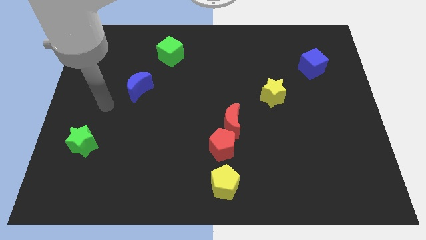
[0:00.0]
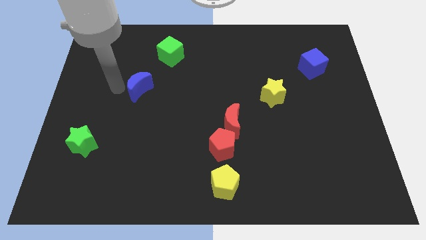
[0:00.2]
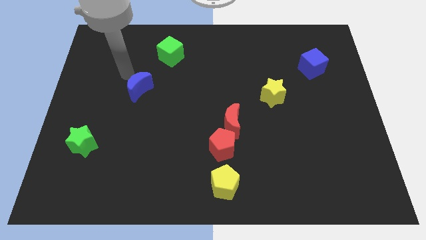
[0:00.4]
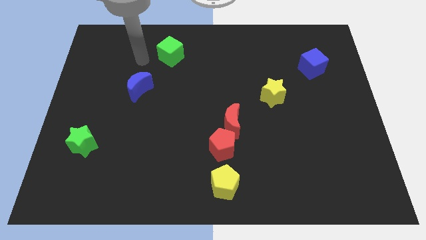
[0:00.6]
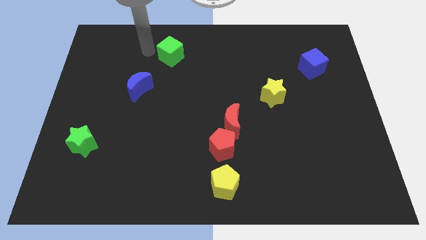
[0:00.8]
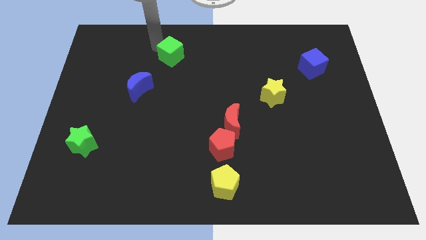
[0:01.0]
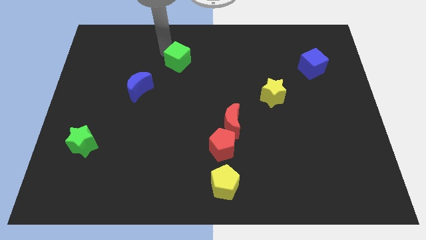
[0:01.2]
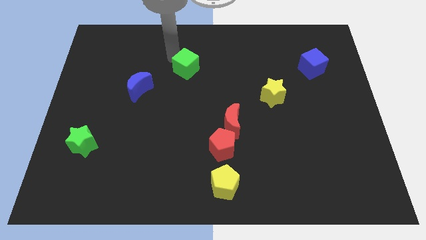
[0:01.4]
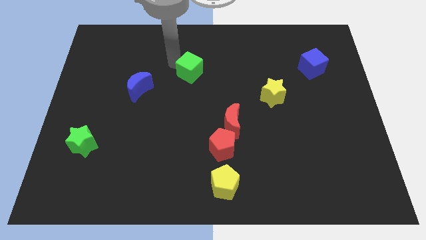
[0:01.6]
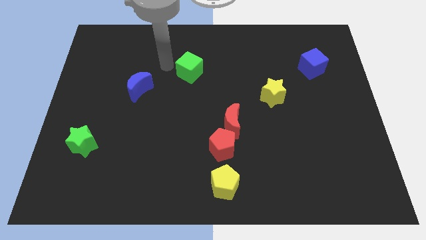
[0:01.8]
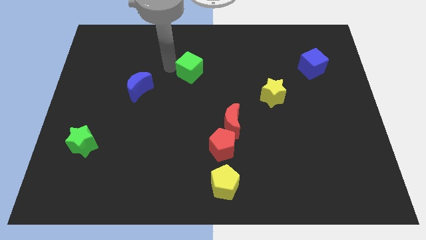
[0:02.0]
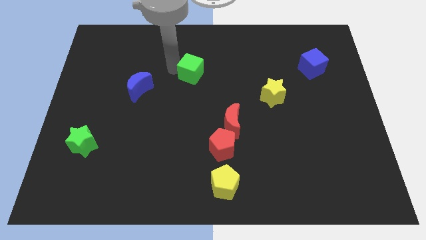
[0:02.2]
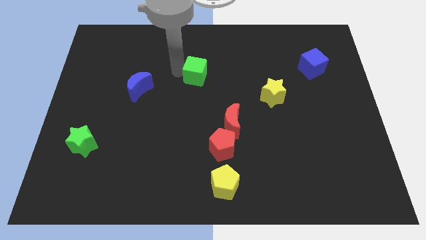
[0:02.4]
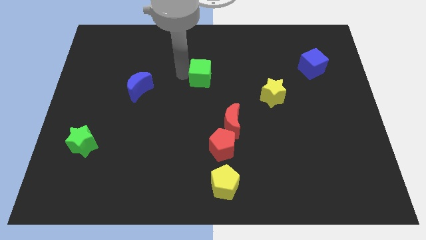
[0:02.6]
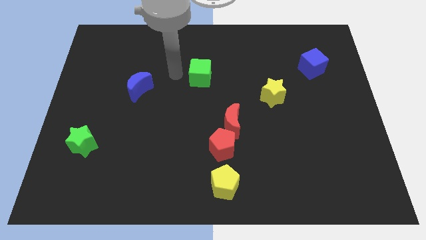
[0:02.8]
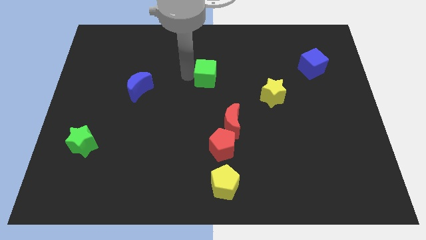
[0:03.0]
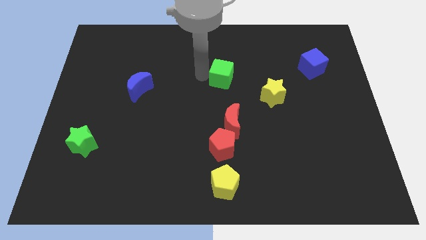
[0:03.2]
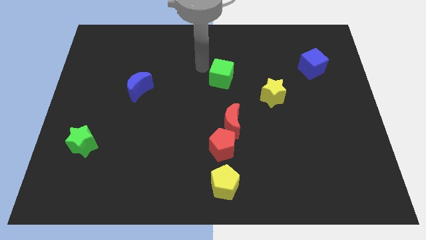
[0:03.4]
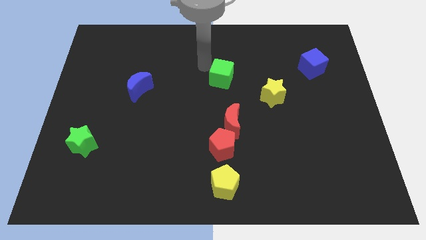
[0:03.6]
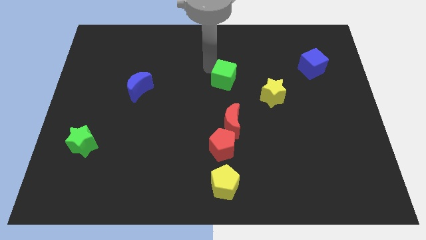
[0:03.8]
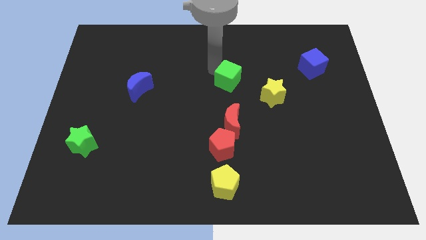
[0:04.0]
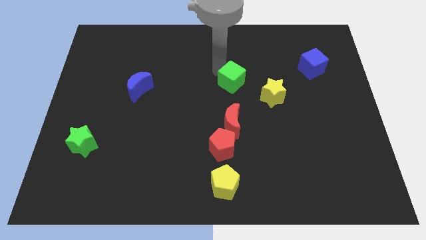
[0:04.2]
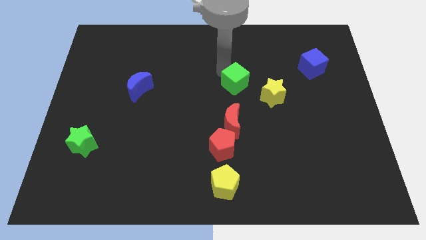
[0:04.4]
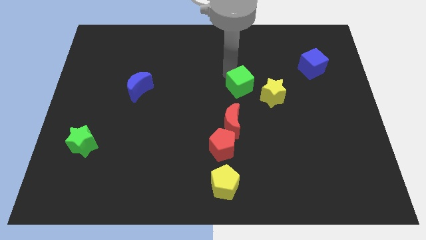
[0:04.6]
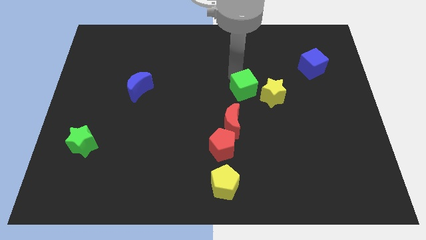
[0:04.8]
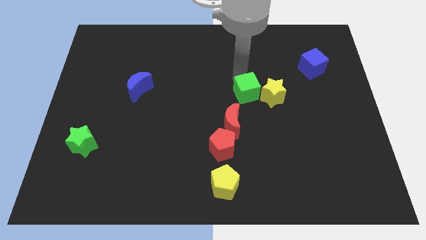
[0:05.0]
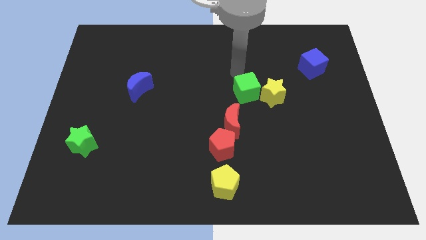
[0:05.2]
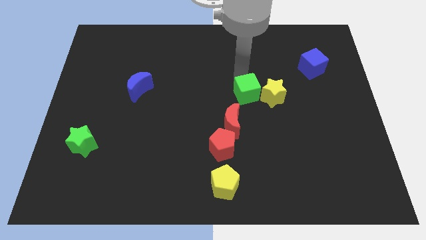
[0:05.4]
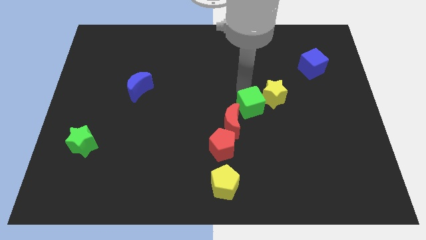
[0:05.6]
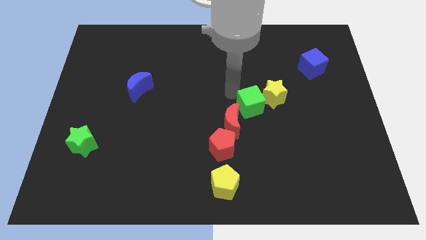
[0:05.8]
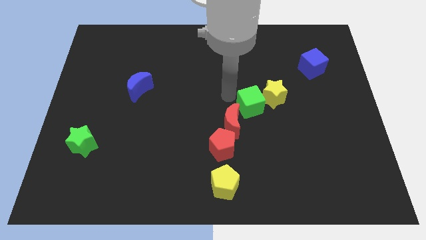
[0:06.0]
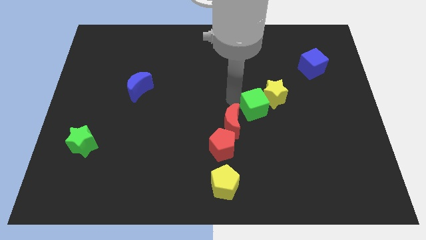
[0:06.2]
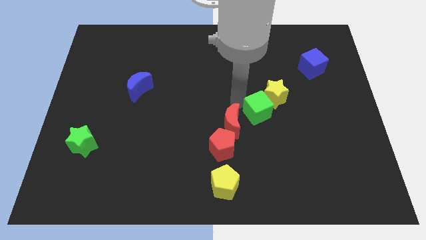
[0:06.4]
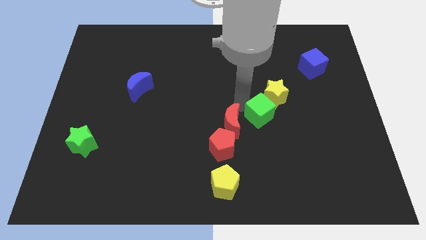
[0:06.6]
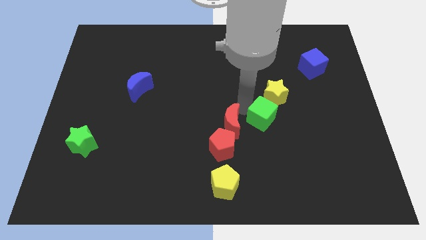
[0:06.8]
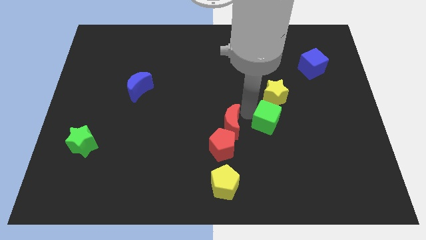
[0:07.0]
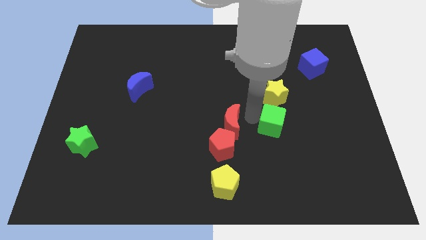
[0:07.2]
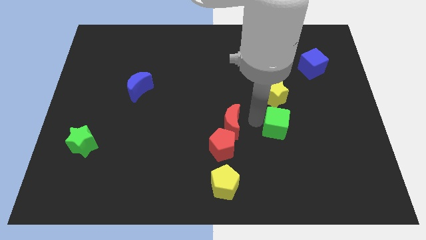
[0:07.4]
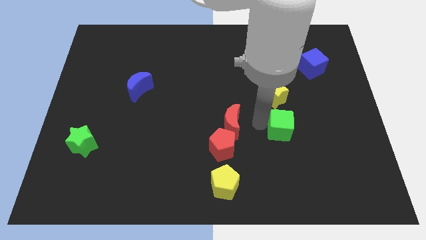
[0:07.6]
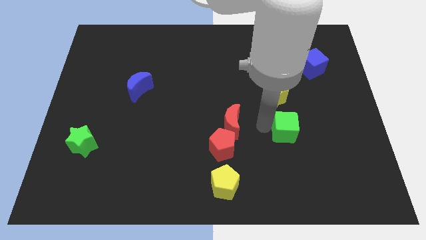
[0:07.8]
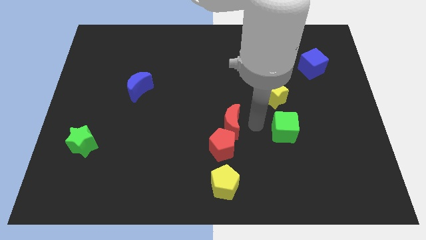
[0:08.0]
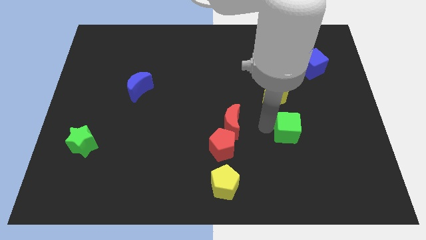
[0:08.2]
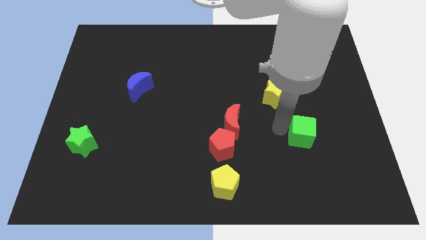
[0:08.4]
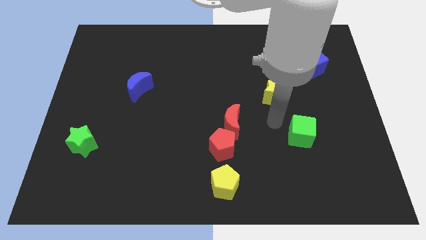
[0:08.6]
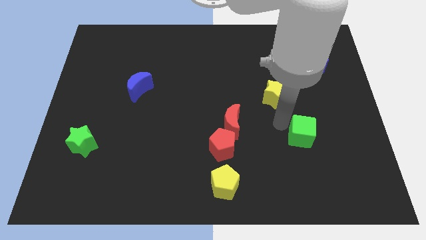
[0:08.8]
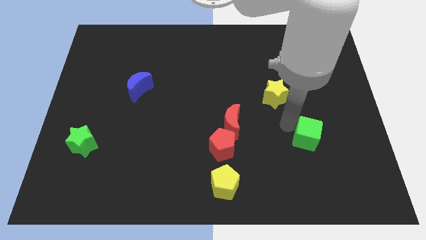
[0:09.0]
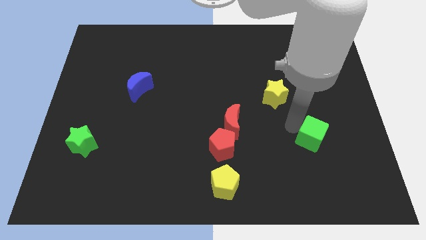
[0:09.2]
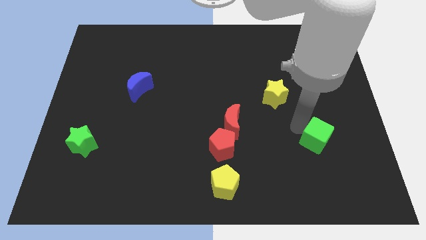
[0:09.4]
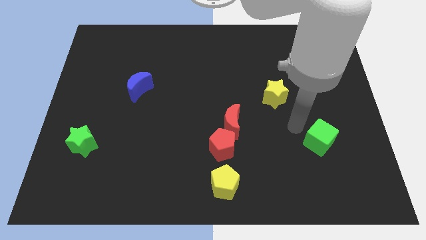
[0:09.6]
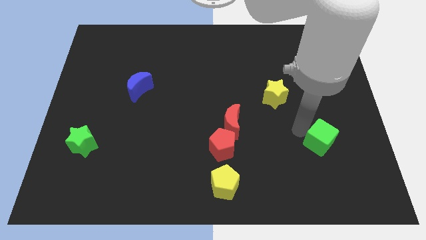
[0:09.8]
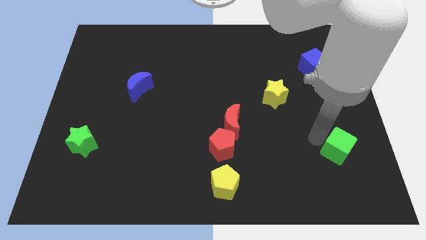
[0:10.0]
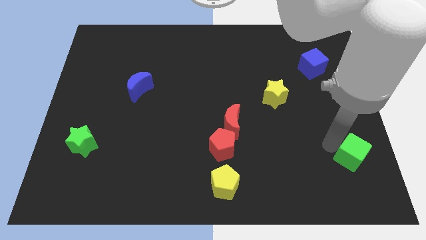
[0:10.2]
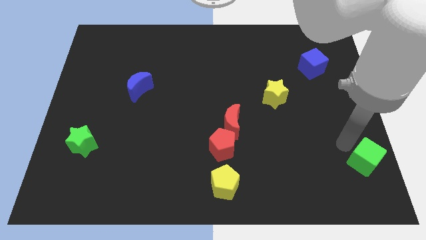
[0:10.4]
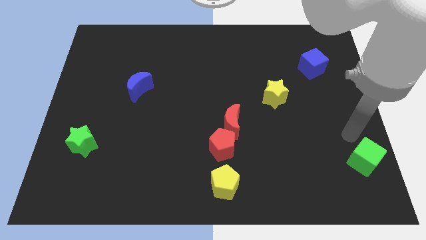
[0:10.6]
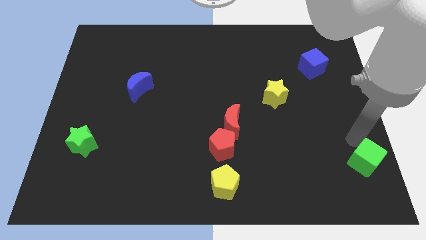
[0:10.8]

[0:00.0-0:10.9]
push the green cube to the lower right corner

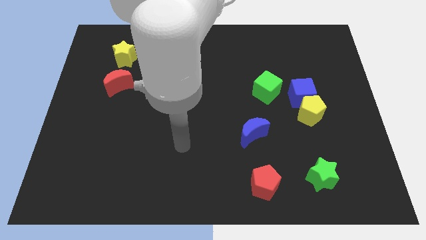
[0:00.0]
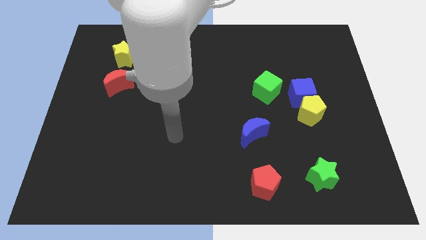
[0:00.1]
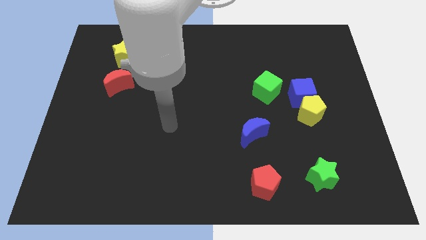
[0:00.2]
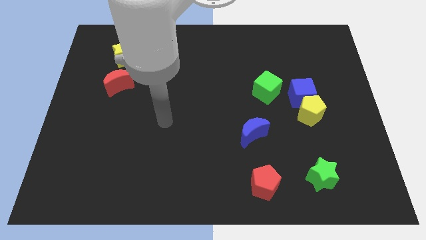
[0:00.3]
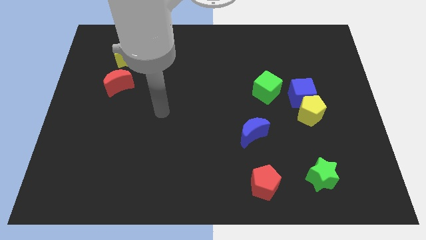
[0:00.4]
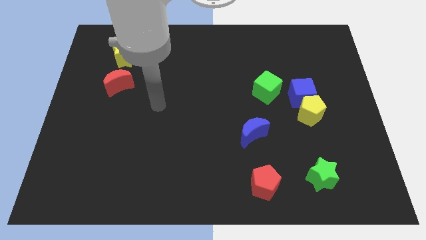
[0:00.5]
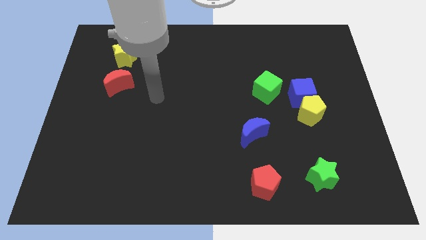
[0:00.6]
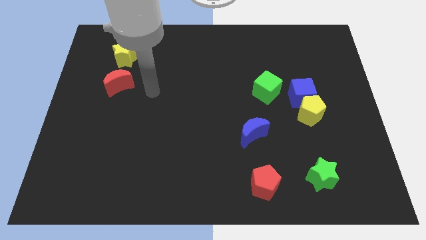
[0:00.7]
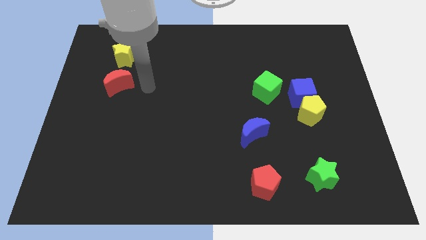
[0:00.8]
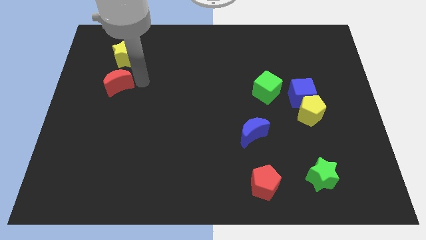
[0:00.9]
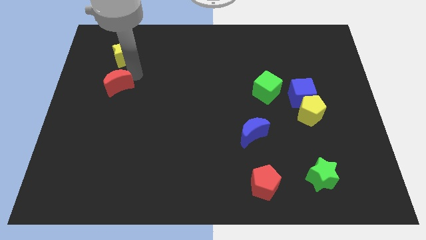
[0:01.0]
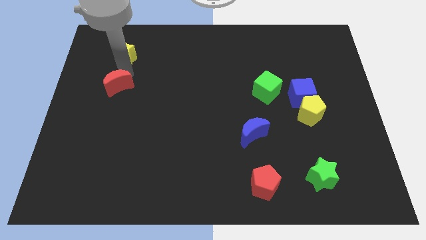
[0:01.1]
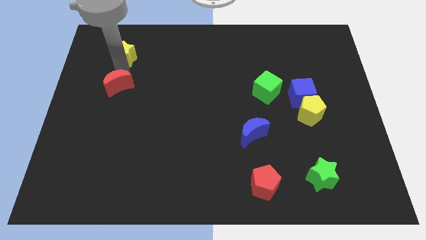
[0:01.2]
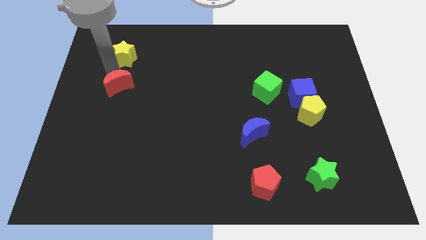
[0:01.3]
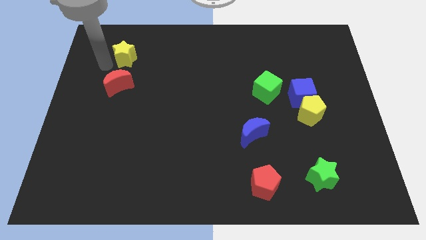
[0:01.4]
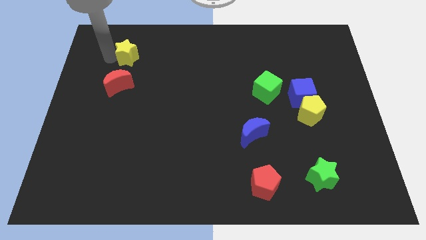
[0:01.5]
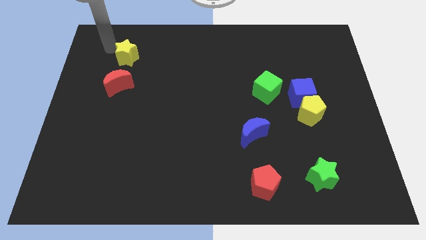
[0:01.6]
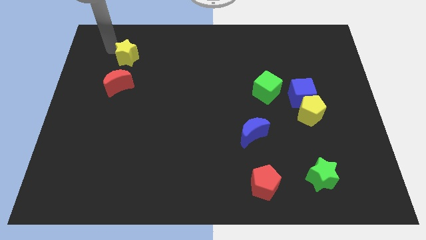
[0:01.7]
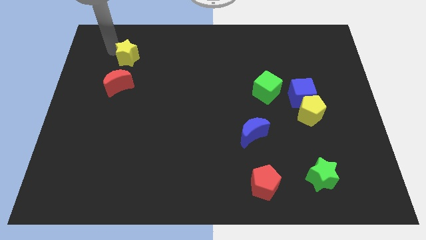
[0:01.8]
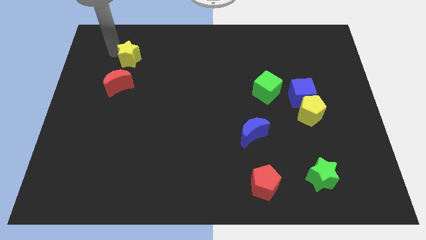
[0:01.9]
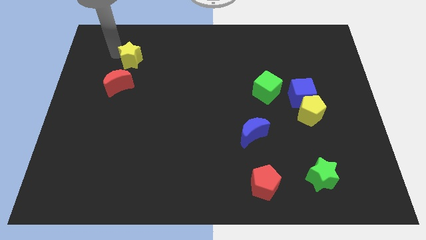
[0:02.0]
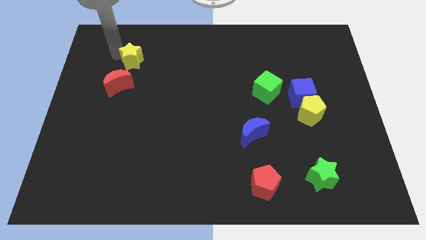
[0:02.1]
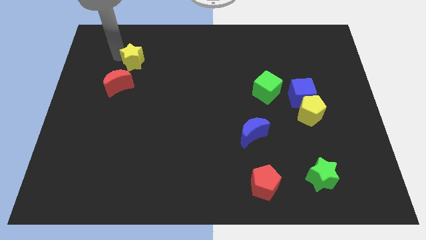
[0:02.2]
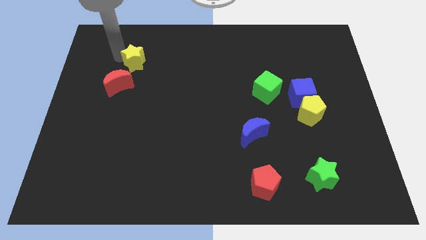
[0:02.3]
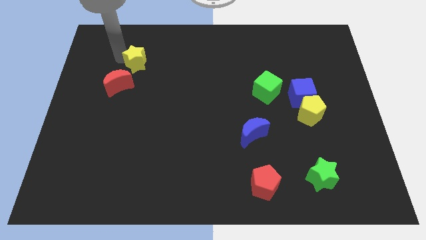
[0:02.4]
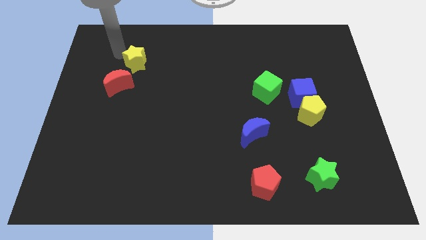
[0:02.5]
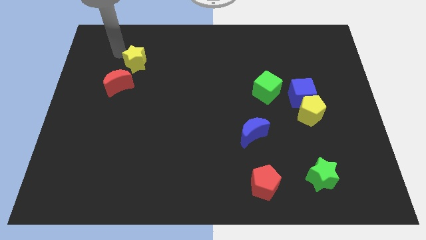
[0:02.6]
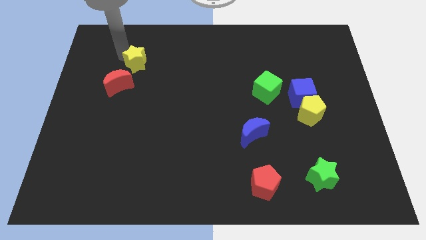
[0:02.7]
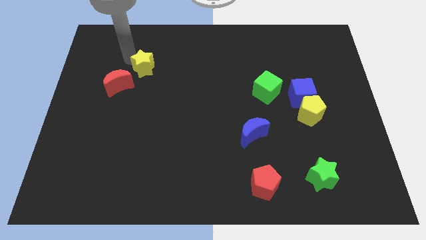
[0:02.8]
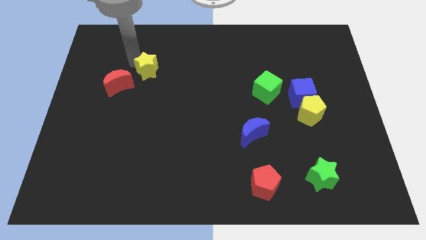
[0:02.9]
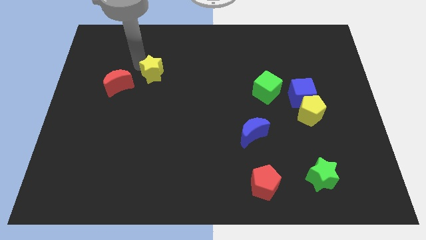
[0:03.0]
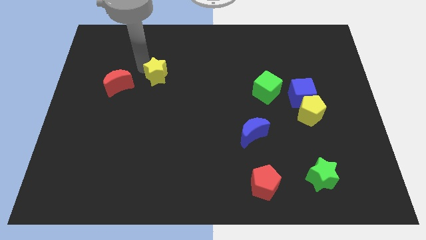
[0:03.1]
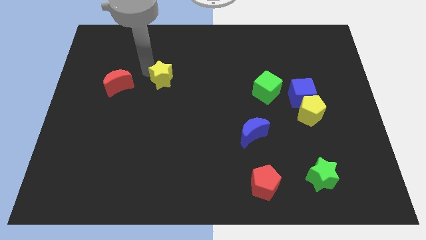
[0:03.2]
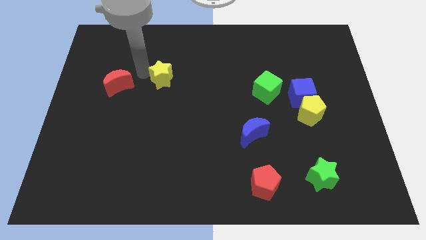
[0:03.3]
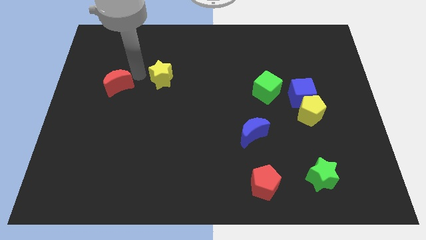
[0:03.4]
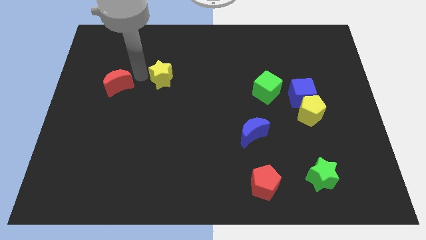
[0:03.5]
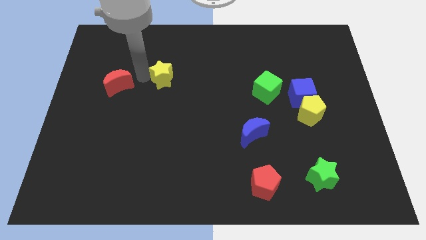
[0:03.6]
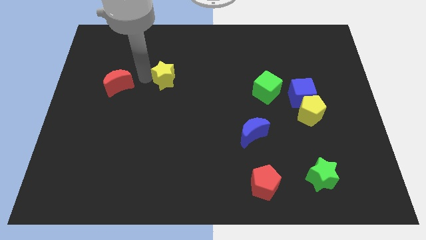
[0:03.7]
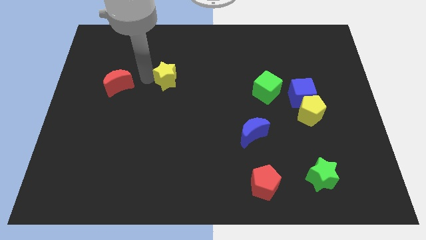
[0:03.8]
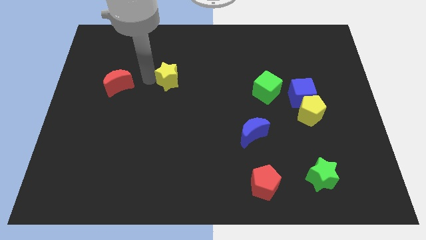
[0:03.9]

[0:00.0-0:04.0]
push the yellow star to the center
